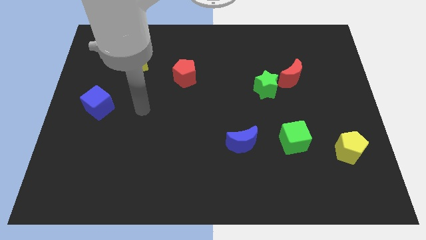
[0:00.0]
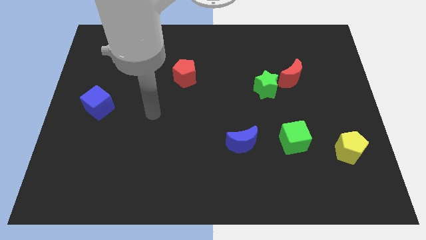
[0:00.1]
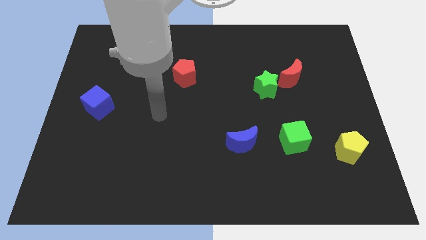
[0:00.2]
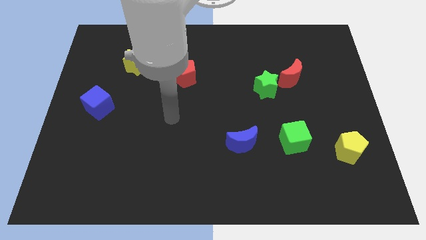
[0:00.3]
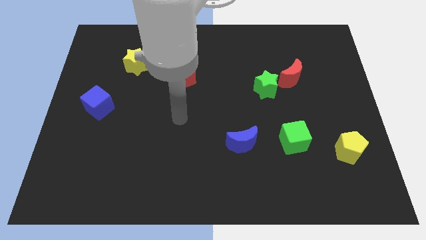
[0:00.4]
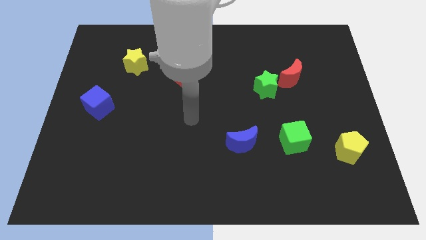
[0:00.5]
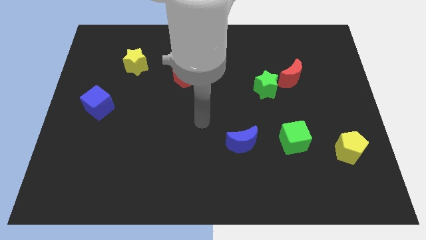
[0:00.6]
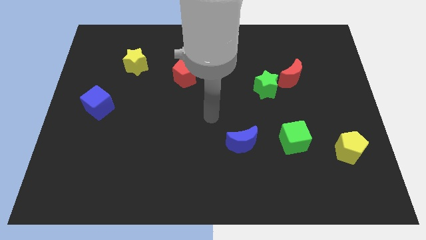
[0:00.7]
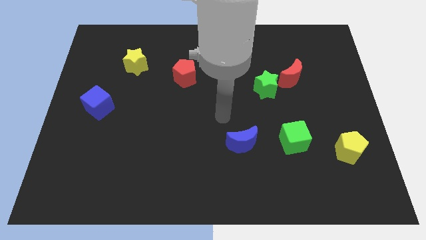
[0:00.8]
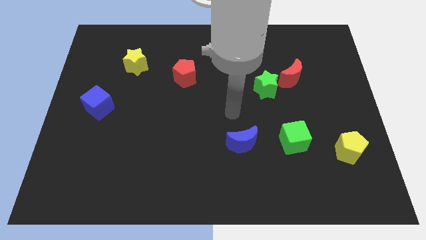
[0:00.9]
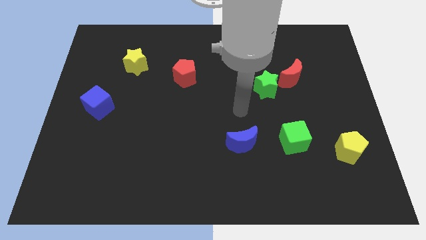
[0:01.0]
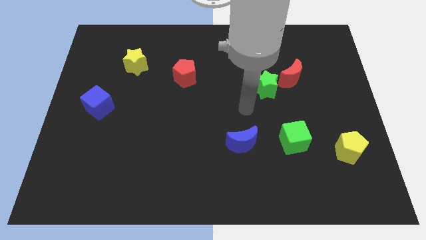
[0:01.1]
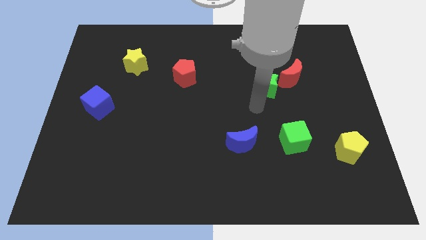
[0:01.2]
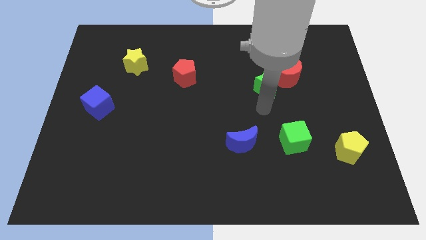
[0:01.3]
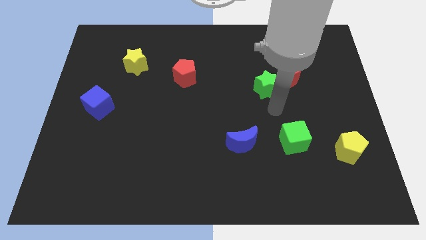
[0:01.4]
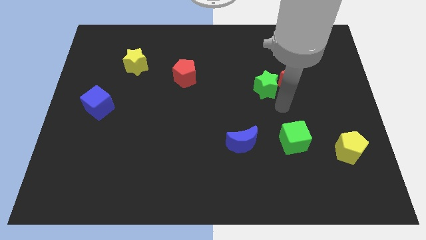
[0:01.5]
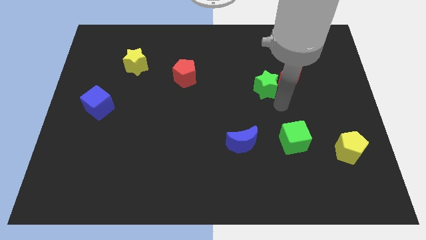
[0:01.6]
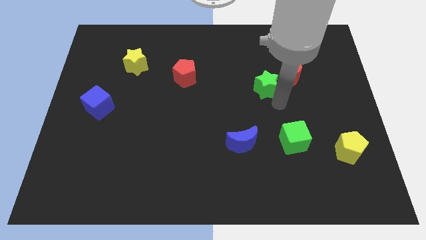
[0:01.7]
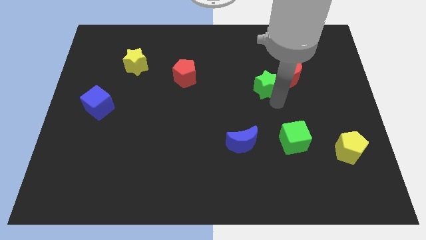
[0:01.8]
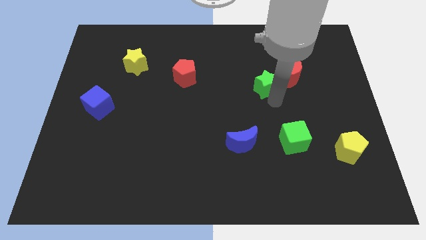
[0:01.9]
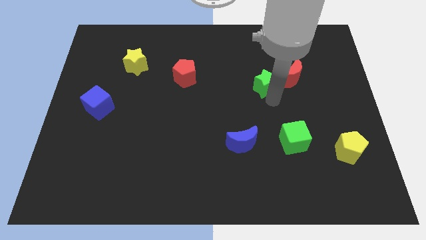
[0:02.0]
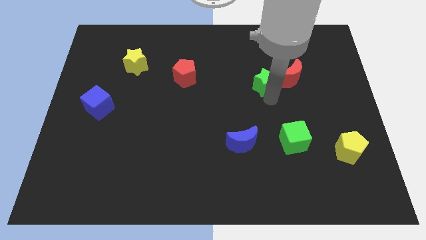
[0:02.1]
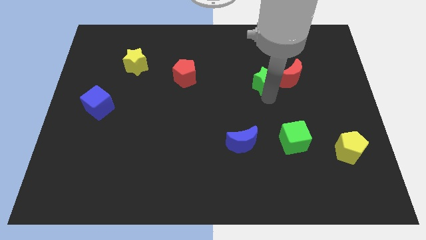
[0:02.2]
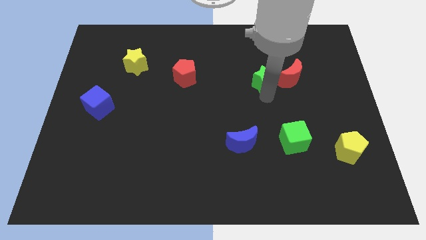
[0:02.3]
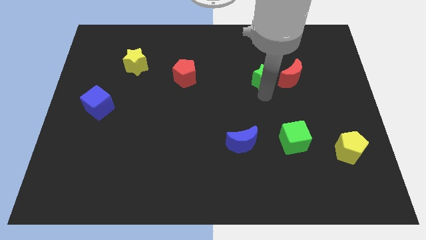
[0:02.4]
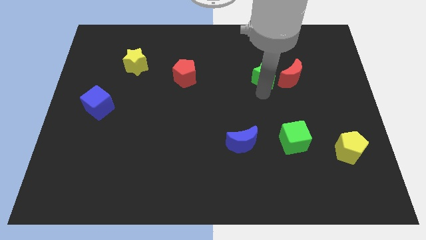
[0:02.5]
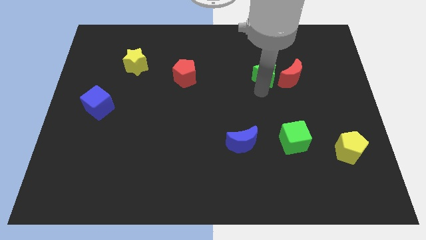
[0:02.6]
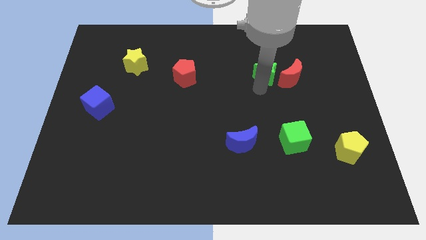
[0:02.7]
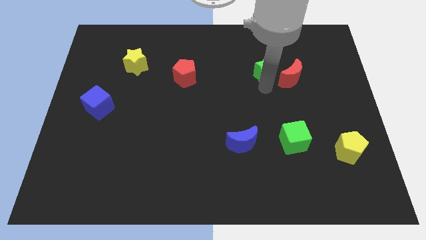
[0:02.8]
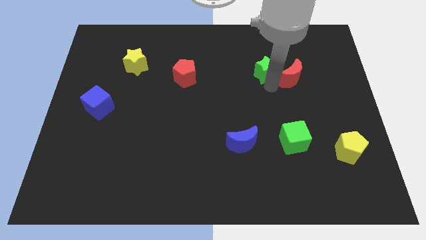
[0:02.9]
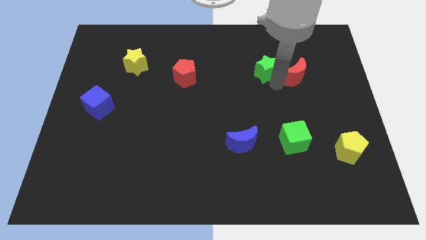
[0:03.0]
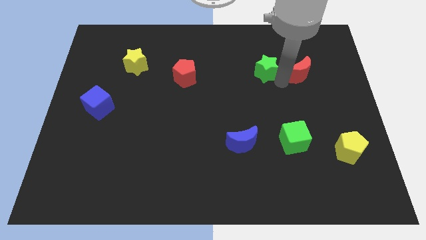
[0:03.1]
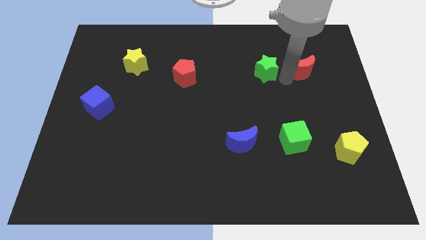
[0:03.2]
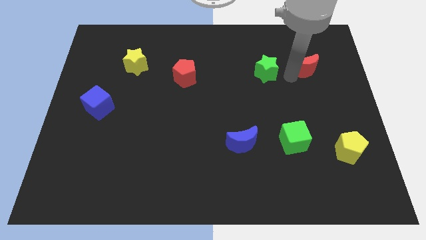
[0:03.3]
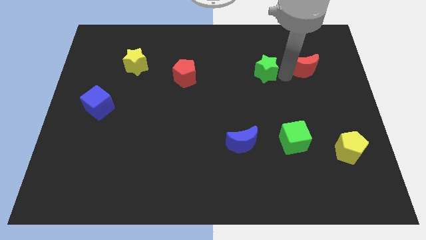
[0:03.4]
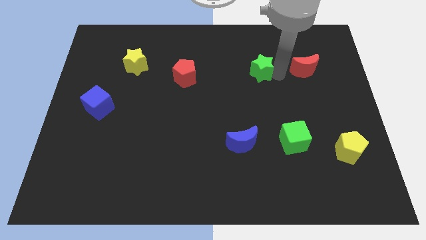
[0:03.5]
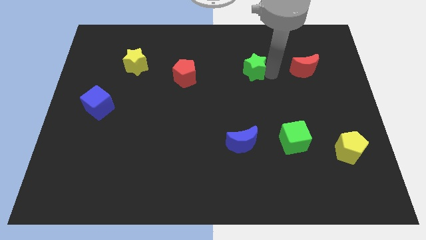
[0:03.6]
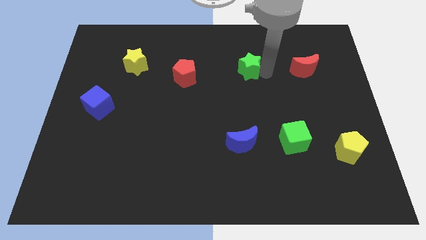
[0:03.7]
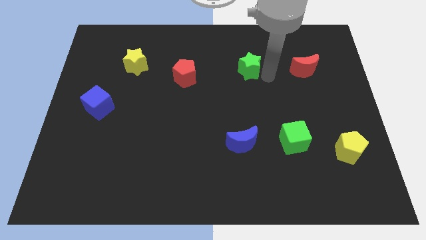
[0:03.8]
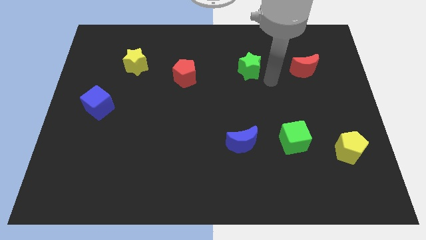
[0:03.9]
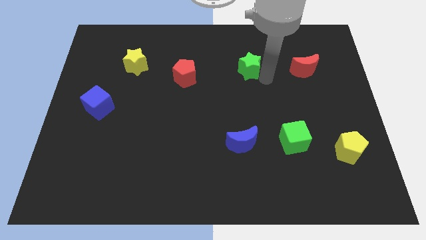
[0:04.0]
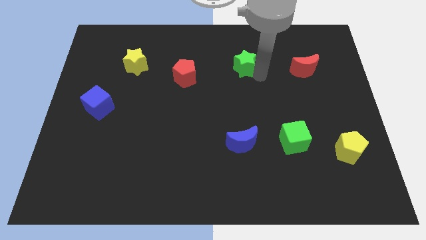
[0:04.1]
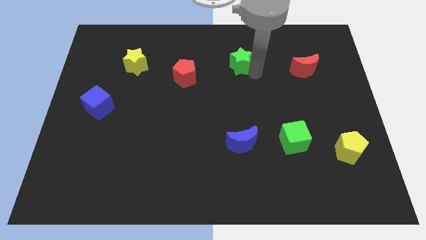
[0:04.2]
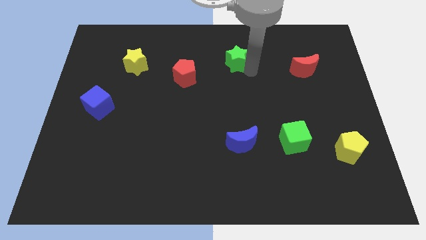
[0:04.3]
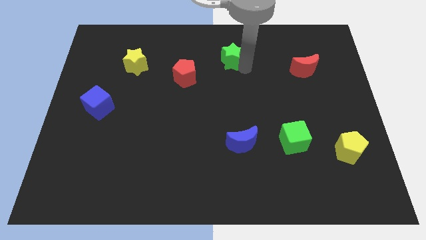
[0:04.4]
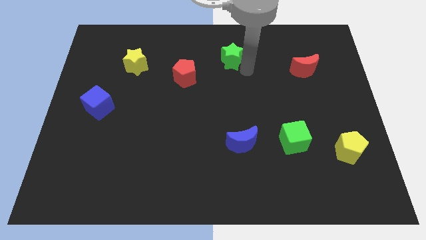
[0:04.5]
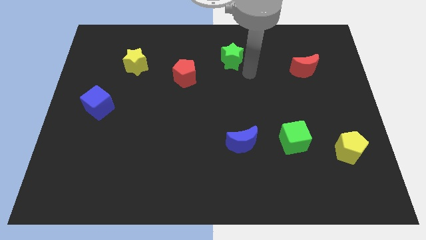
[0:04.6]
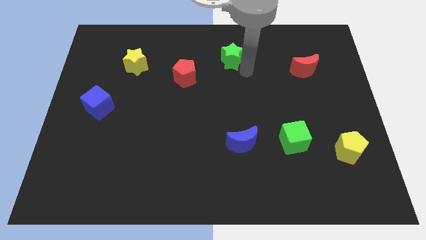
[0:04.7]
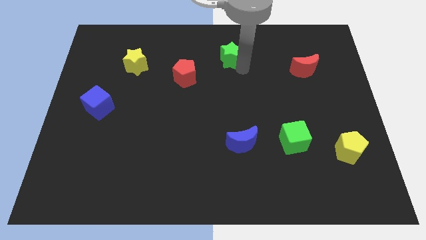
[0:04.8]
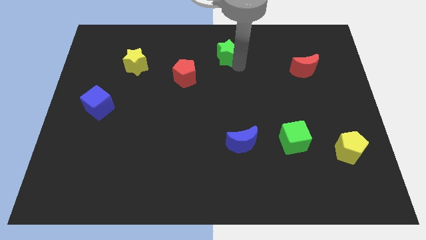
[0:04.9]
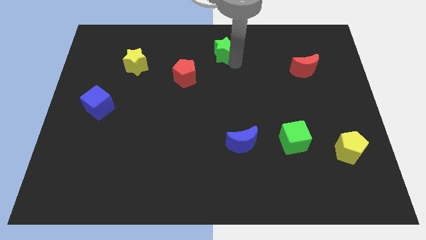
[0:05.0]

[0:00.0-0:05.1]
slide the green star to the top side

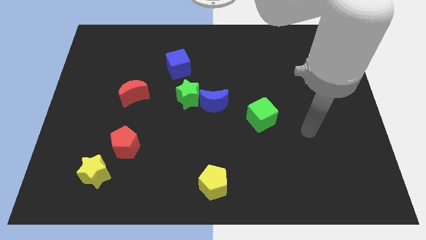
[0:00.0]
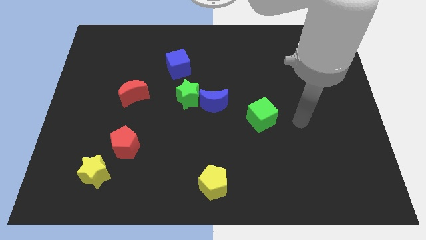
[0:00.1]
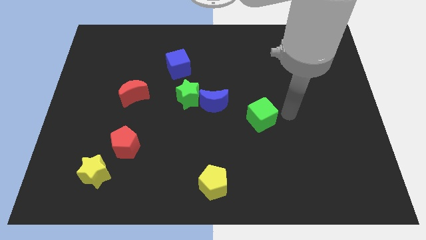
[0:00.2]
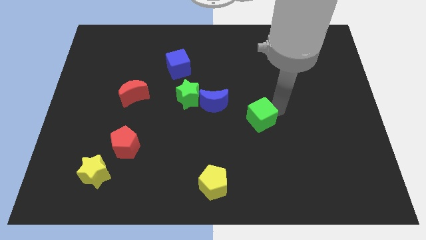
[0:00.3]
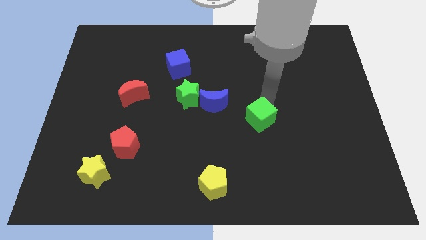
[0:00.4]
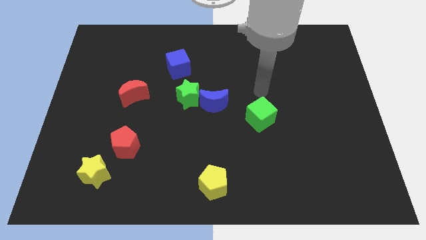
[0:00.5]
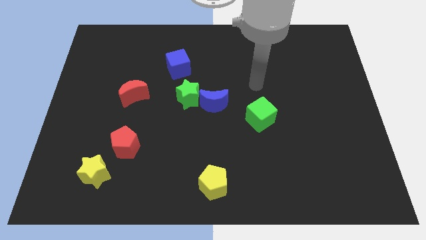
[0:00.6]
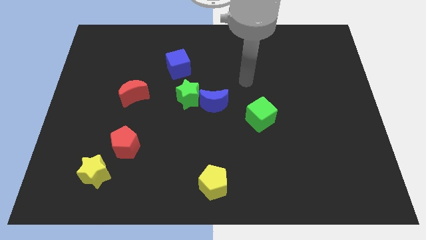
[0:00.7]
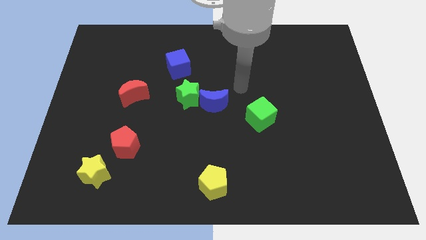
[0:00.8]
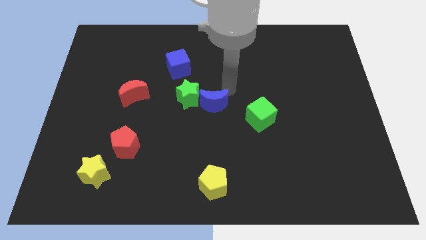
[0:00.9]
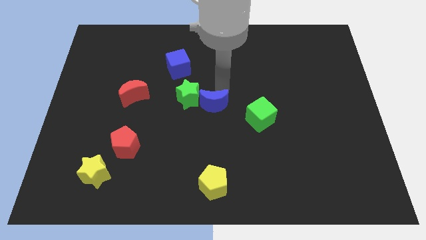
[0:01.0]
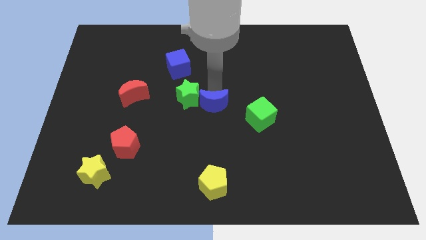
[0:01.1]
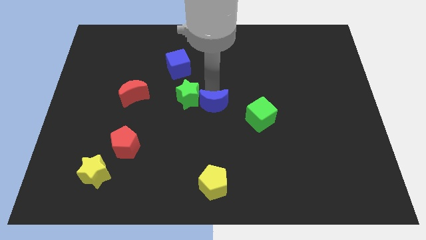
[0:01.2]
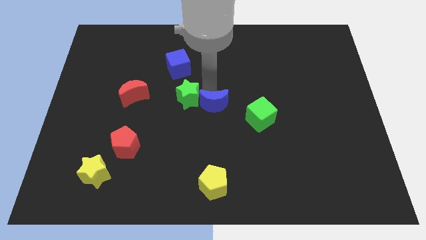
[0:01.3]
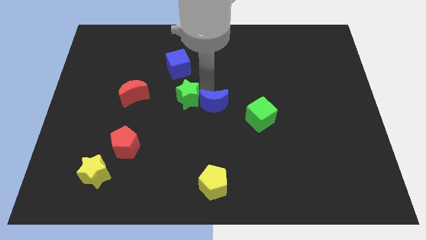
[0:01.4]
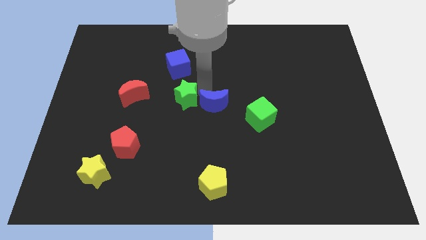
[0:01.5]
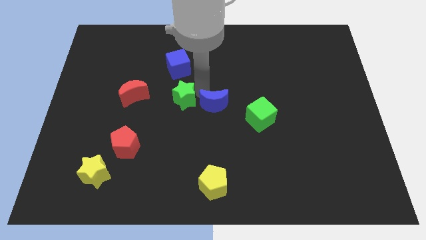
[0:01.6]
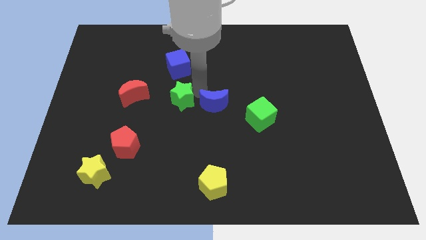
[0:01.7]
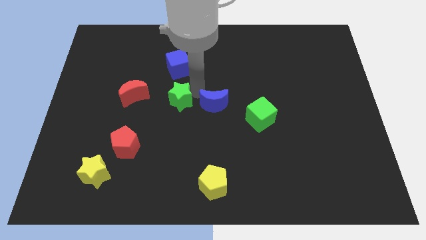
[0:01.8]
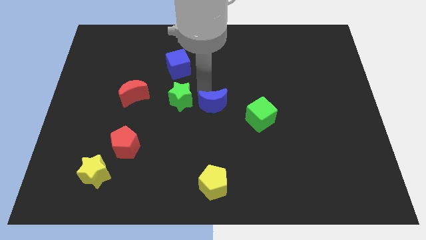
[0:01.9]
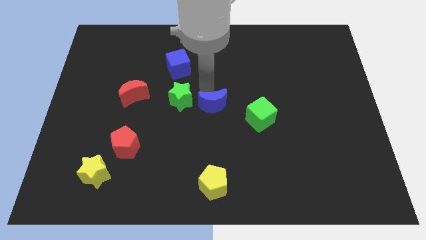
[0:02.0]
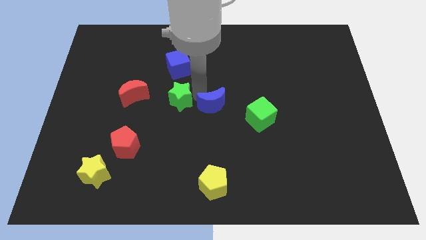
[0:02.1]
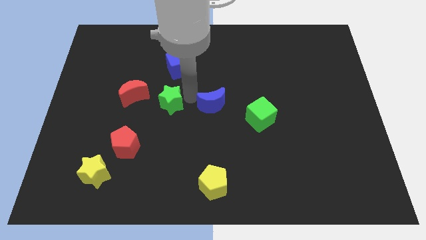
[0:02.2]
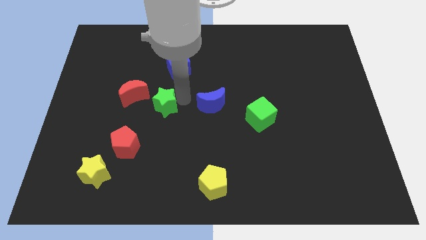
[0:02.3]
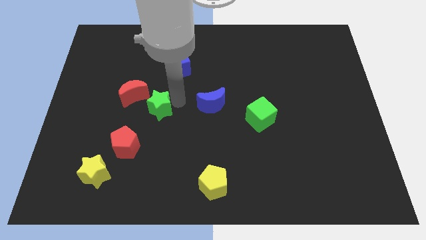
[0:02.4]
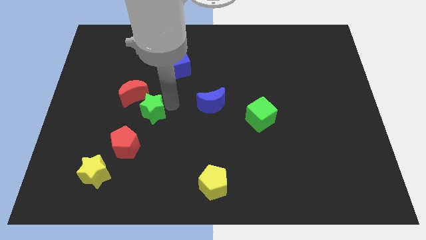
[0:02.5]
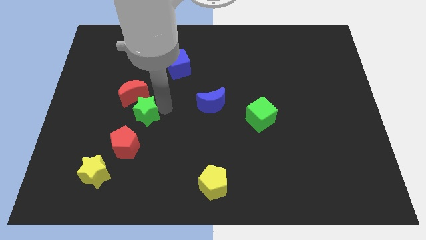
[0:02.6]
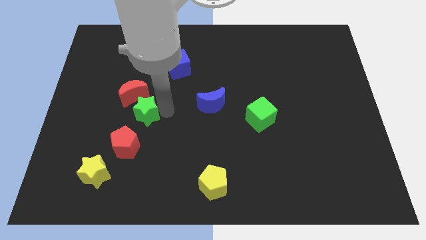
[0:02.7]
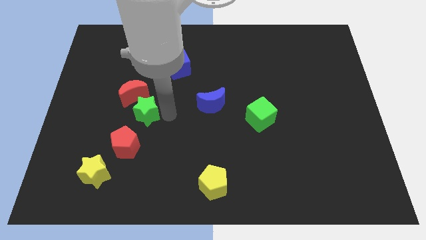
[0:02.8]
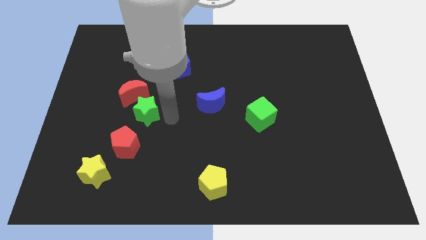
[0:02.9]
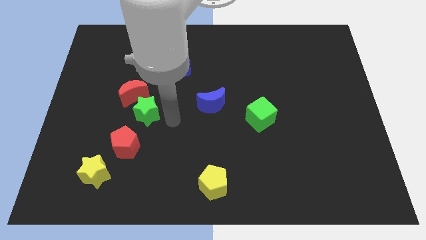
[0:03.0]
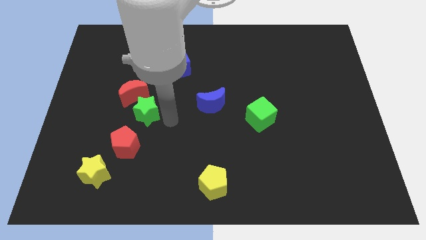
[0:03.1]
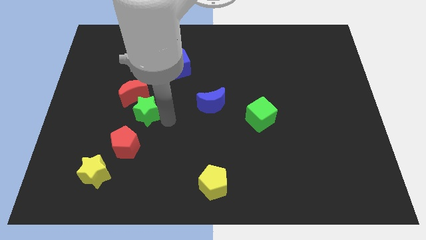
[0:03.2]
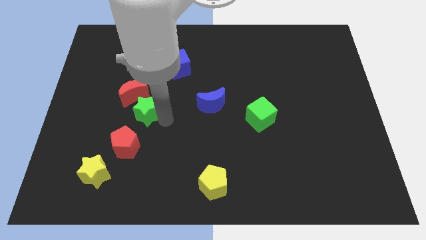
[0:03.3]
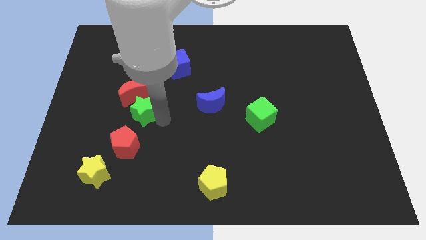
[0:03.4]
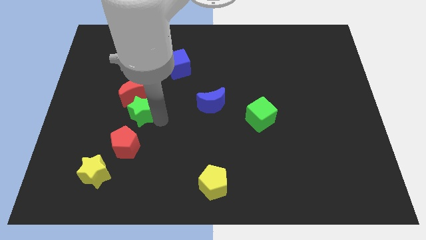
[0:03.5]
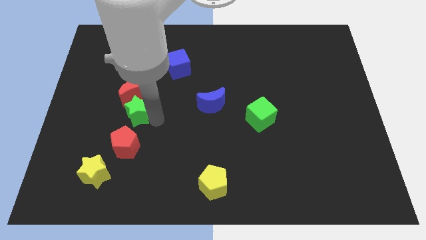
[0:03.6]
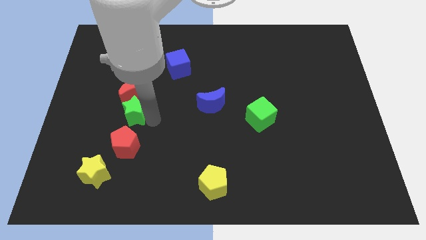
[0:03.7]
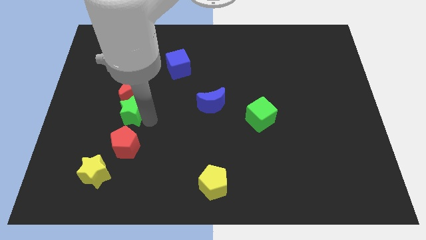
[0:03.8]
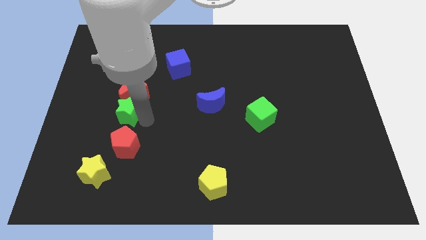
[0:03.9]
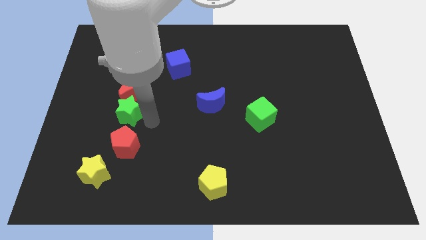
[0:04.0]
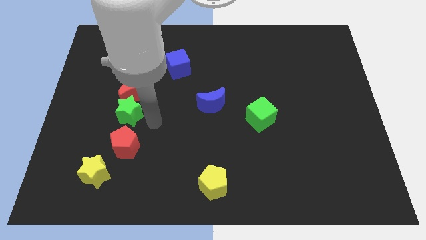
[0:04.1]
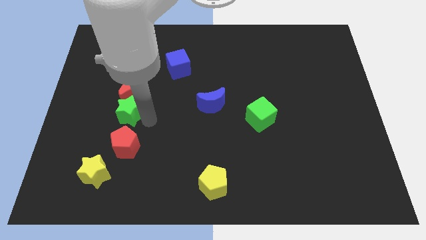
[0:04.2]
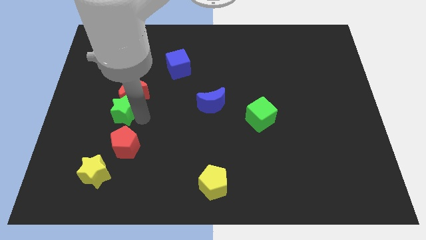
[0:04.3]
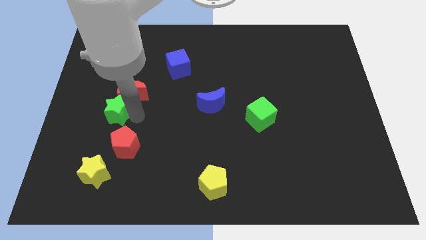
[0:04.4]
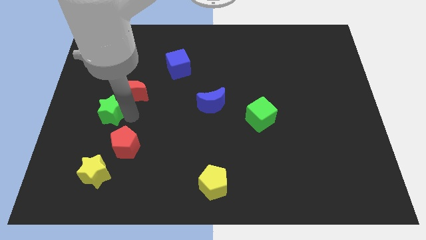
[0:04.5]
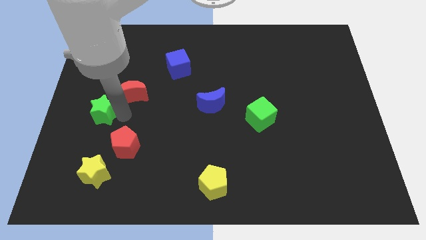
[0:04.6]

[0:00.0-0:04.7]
put the green star to the left side of the board
